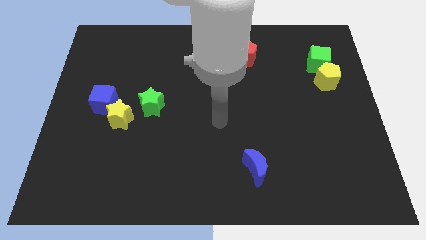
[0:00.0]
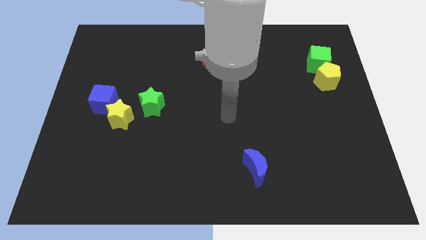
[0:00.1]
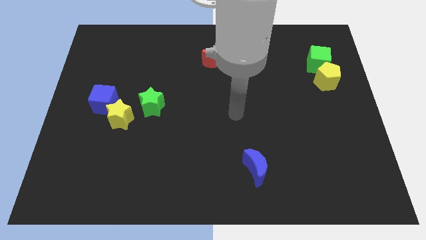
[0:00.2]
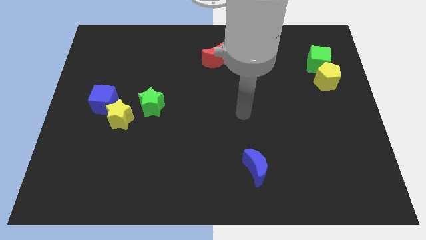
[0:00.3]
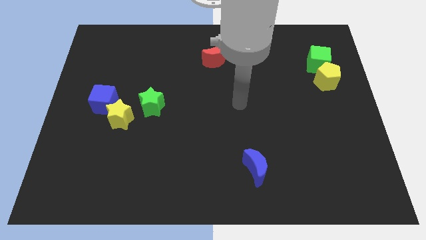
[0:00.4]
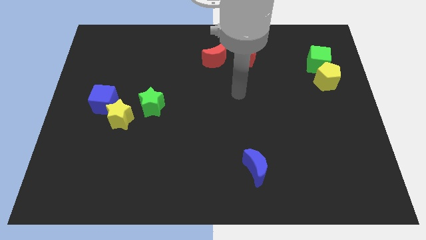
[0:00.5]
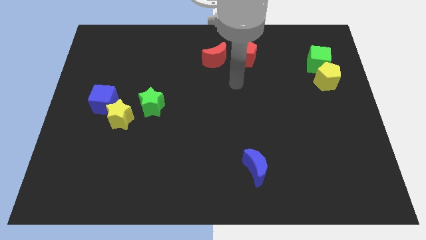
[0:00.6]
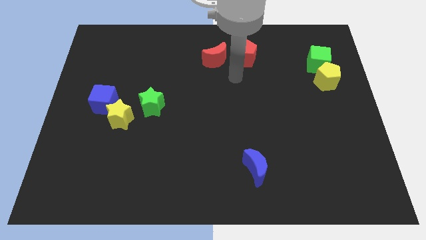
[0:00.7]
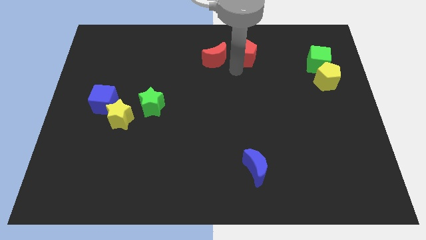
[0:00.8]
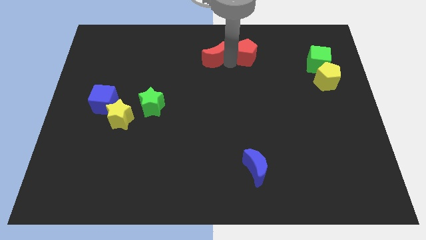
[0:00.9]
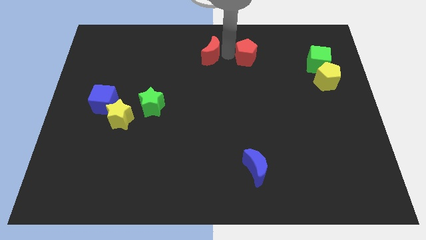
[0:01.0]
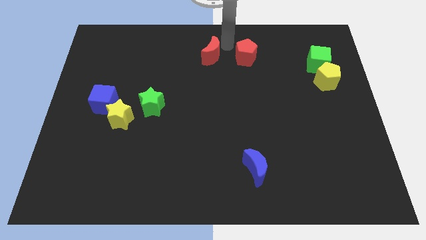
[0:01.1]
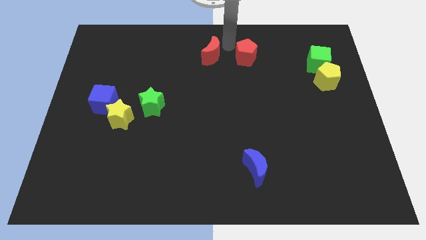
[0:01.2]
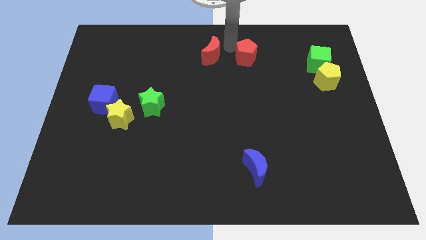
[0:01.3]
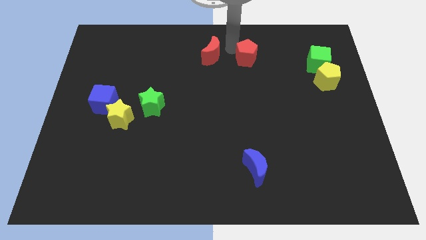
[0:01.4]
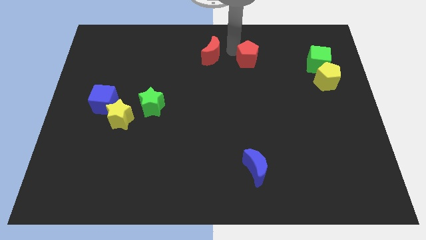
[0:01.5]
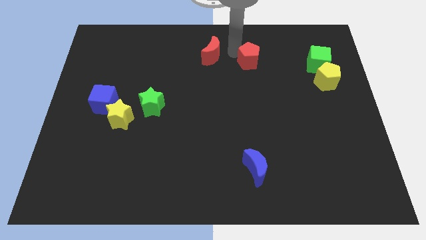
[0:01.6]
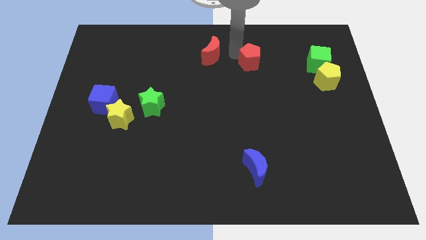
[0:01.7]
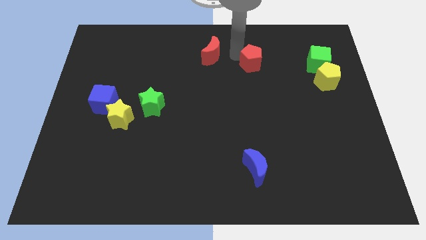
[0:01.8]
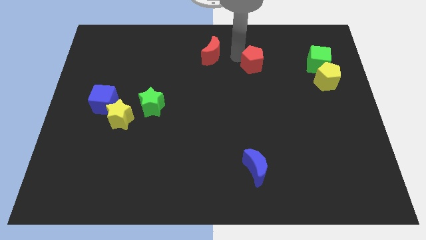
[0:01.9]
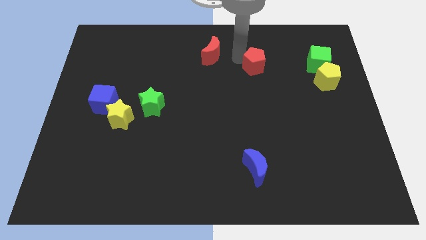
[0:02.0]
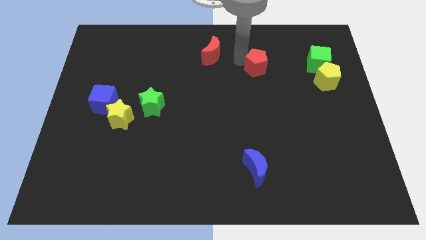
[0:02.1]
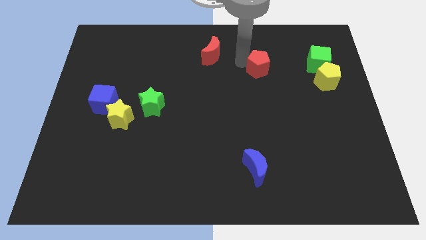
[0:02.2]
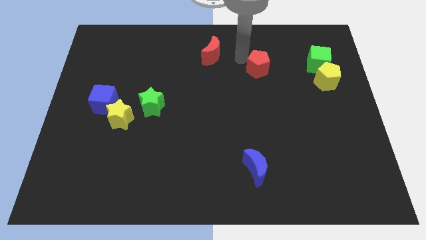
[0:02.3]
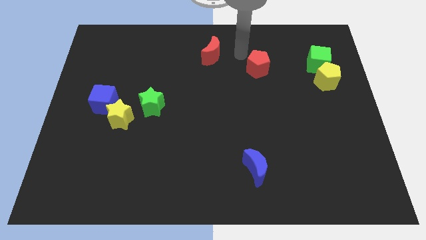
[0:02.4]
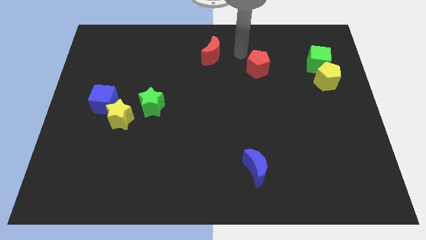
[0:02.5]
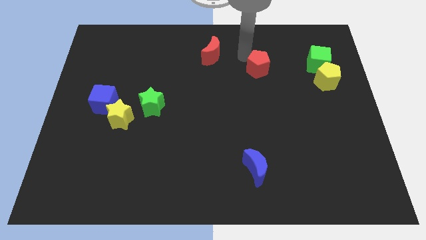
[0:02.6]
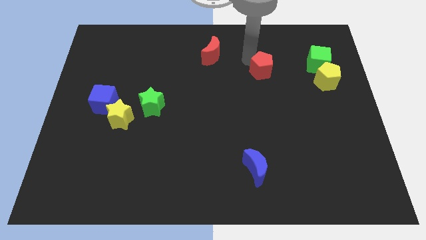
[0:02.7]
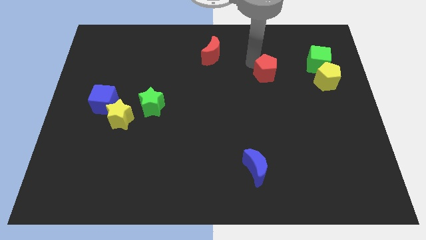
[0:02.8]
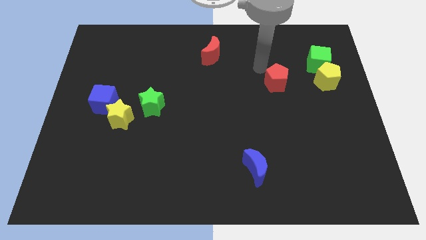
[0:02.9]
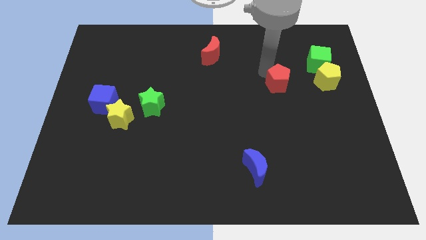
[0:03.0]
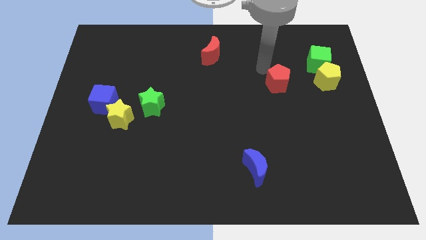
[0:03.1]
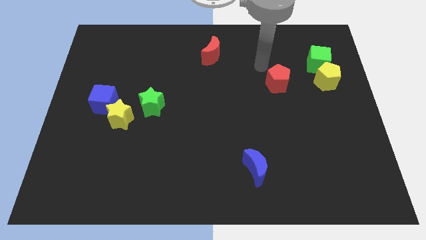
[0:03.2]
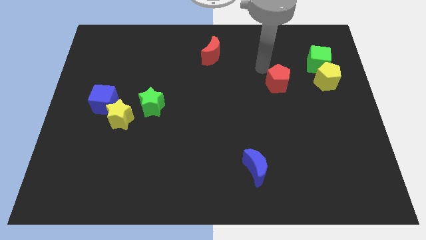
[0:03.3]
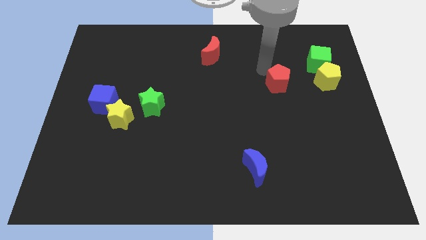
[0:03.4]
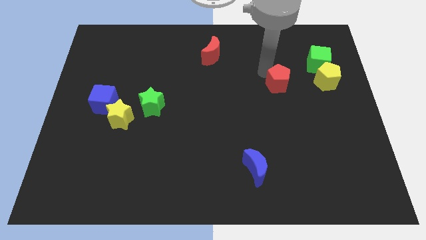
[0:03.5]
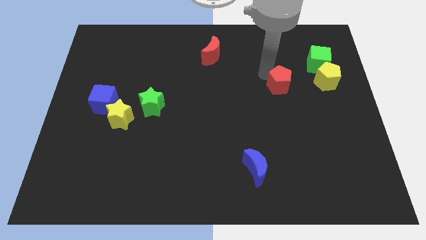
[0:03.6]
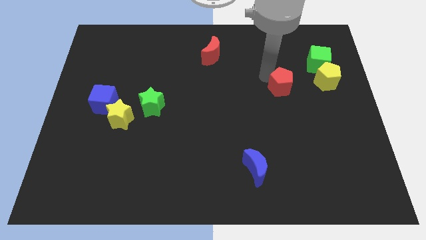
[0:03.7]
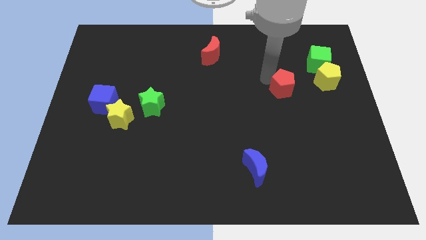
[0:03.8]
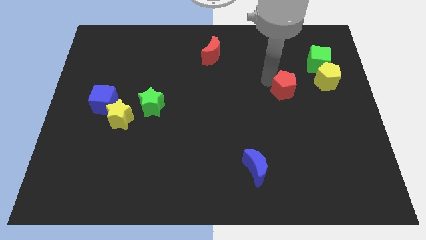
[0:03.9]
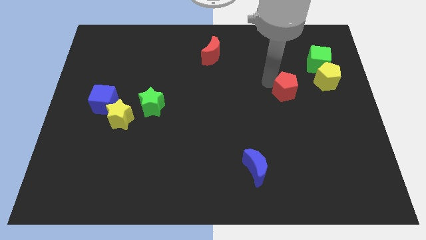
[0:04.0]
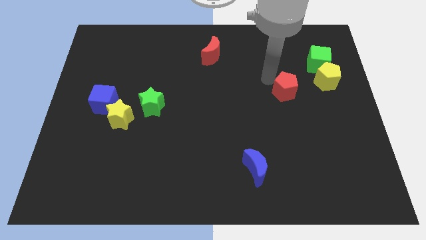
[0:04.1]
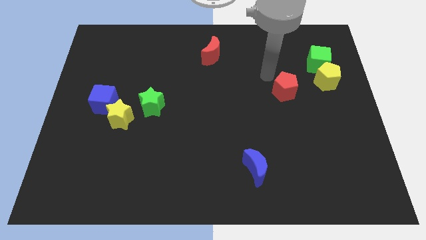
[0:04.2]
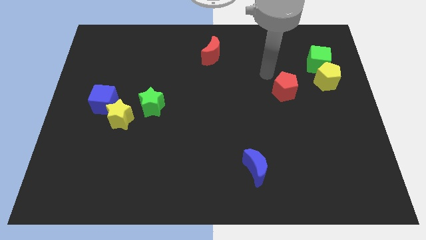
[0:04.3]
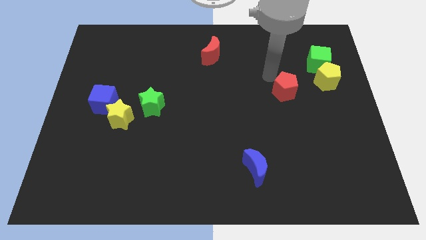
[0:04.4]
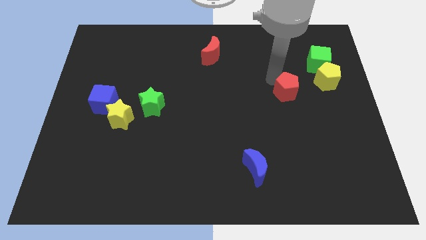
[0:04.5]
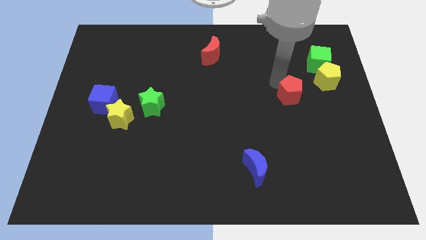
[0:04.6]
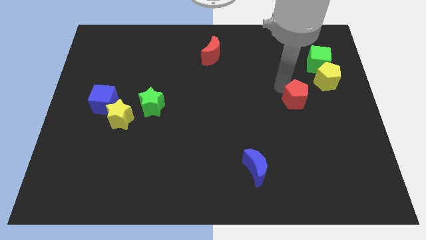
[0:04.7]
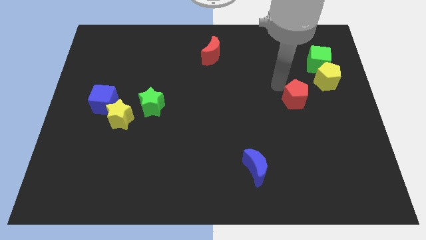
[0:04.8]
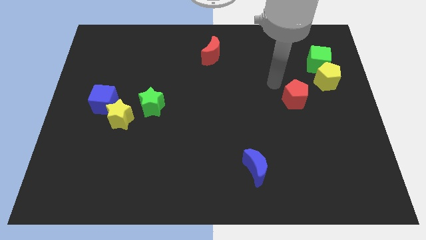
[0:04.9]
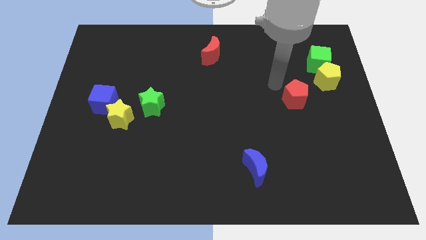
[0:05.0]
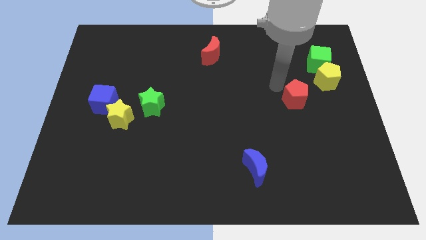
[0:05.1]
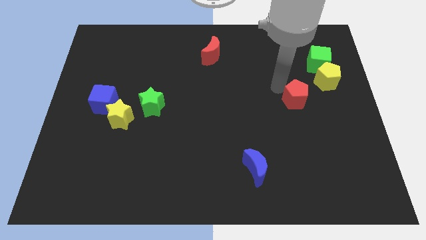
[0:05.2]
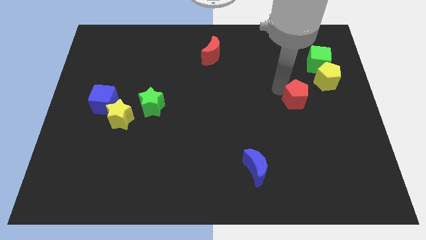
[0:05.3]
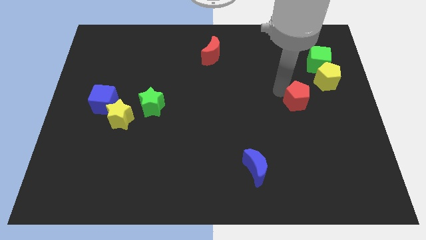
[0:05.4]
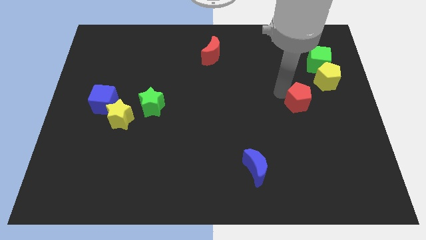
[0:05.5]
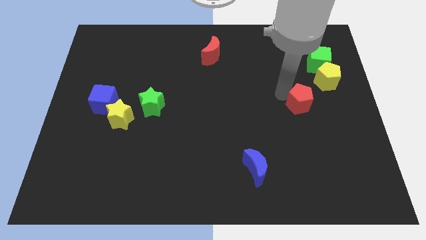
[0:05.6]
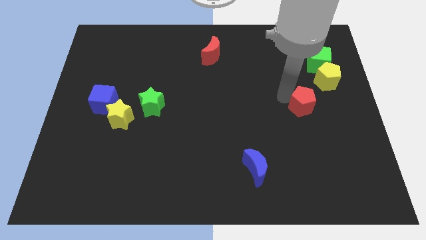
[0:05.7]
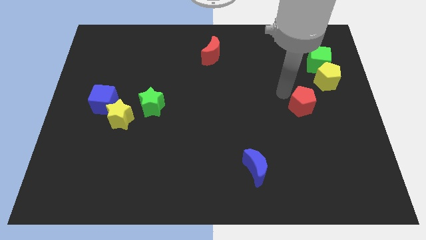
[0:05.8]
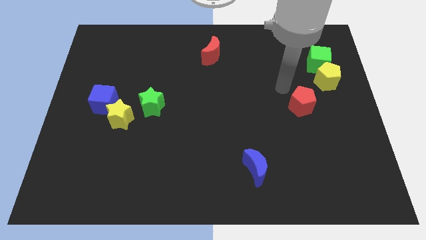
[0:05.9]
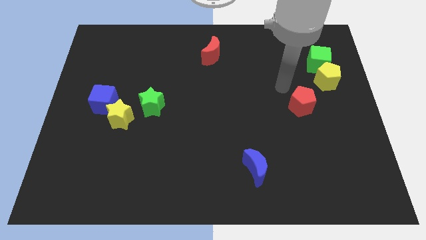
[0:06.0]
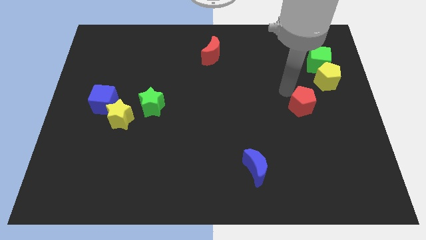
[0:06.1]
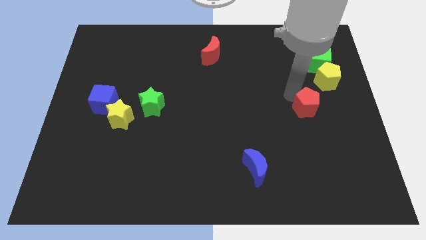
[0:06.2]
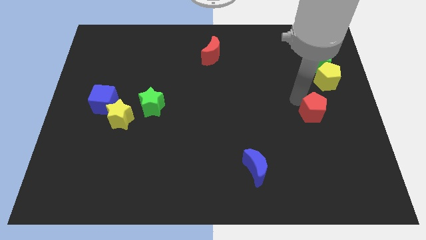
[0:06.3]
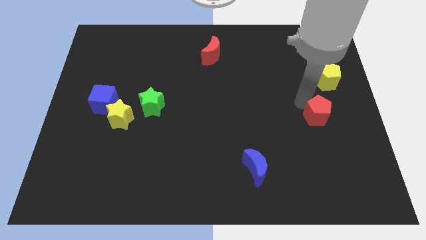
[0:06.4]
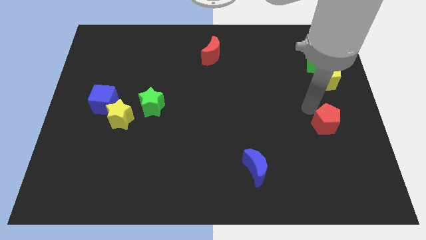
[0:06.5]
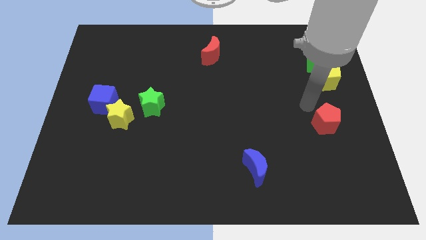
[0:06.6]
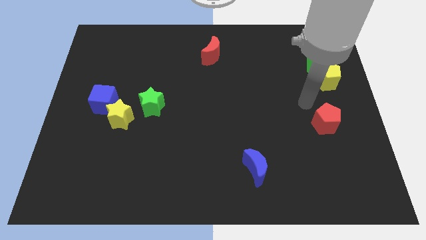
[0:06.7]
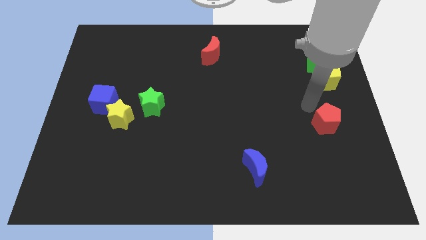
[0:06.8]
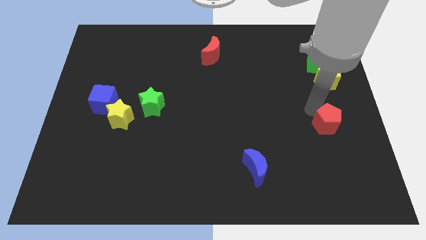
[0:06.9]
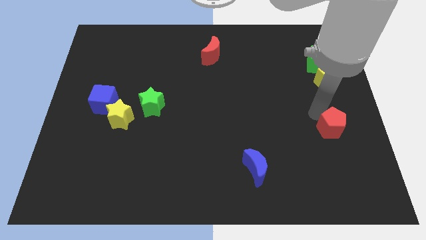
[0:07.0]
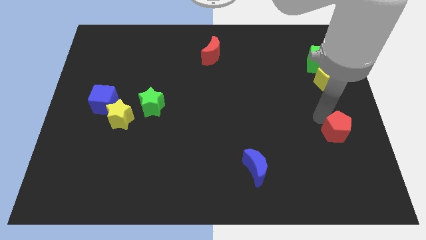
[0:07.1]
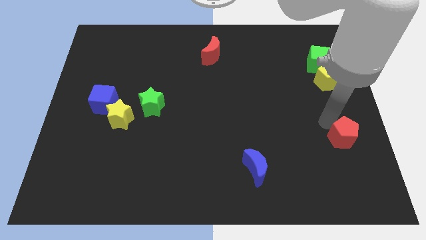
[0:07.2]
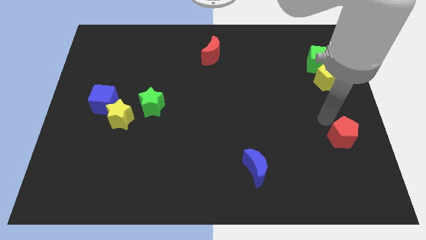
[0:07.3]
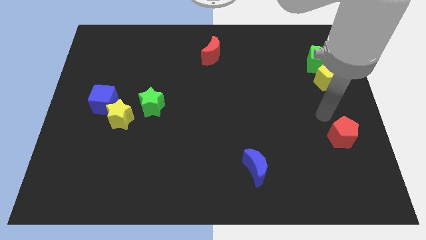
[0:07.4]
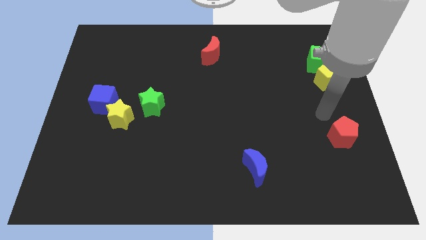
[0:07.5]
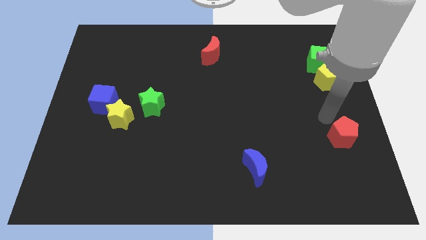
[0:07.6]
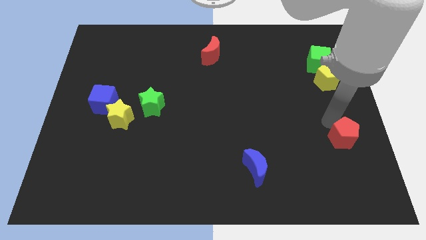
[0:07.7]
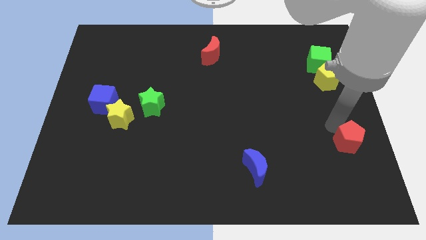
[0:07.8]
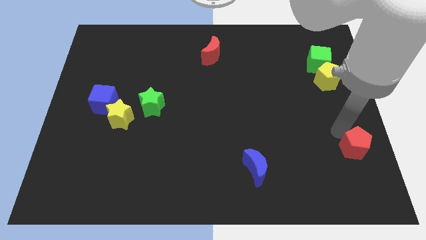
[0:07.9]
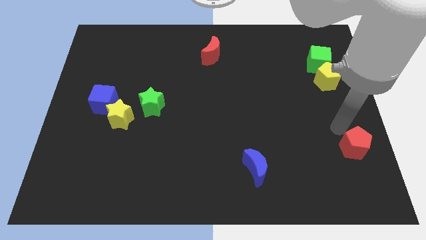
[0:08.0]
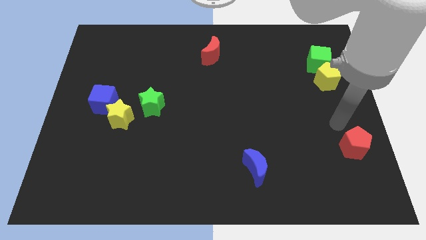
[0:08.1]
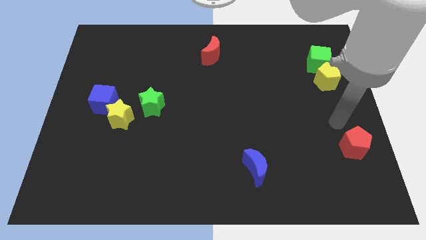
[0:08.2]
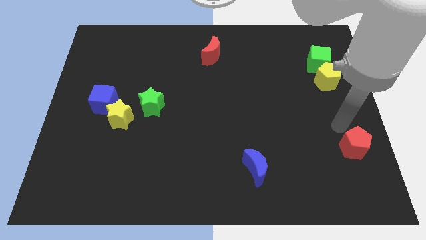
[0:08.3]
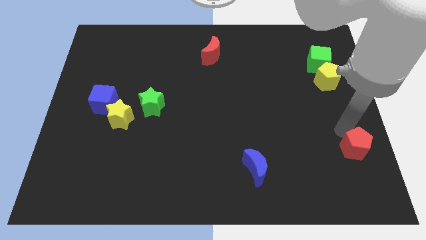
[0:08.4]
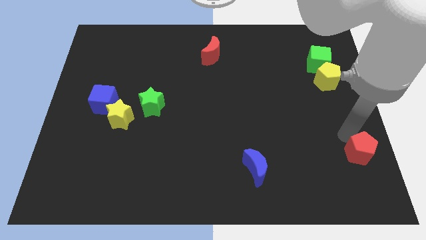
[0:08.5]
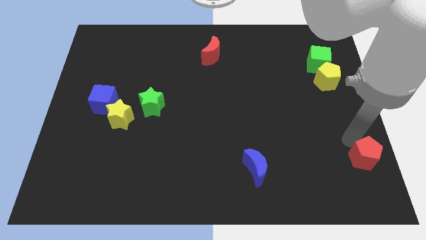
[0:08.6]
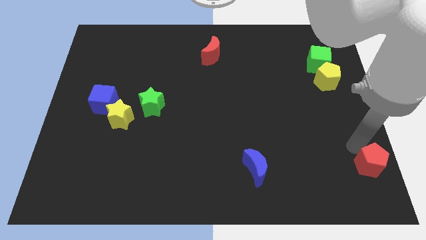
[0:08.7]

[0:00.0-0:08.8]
slide the red pentagon to the bottom right corner
